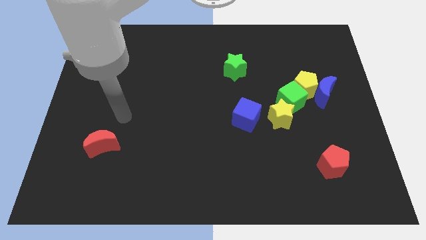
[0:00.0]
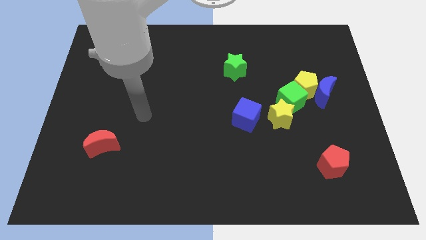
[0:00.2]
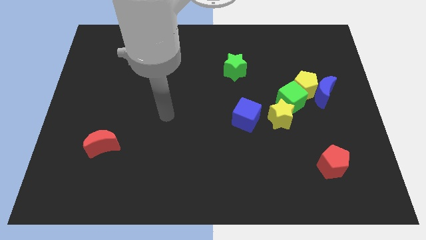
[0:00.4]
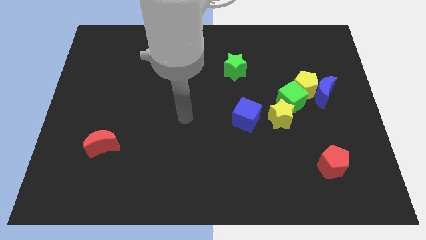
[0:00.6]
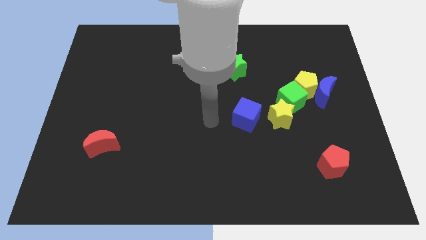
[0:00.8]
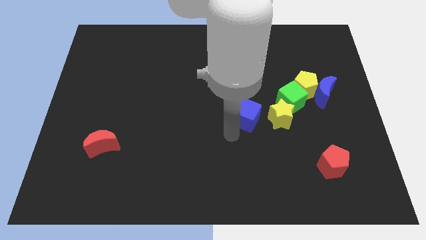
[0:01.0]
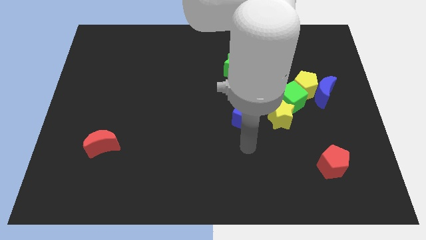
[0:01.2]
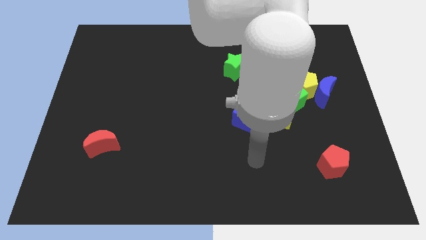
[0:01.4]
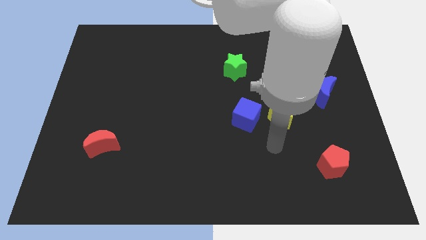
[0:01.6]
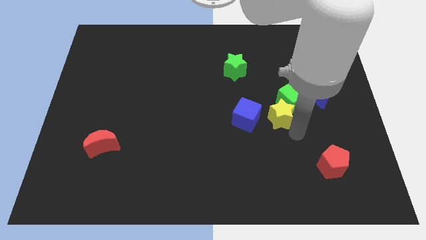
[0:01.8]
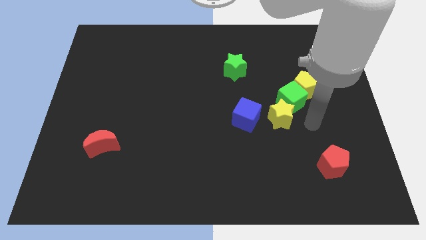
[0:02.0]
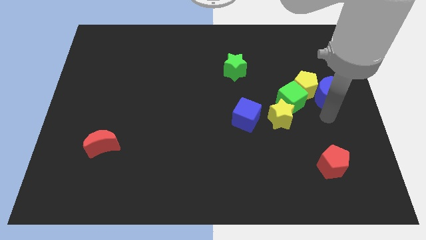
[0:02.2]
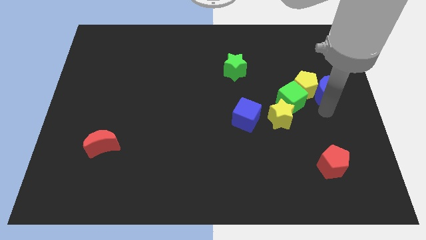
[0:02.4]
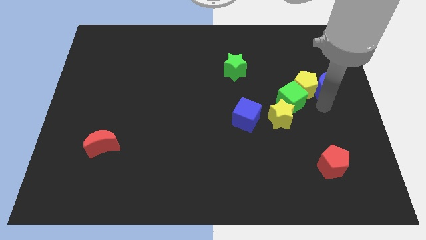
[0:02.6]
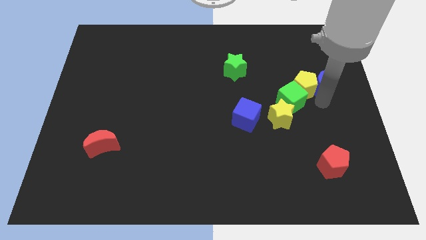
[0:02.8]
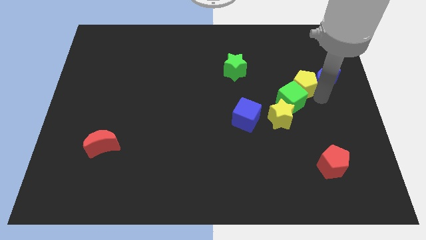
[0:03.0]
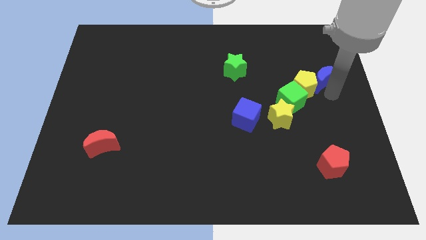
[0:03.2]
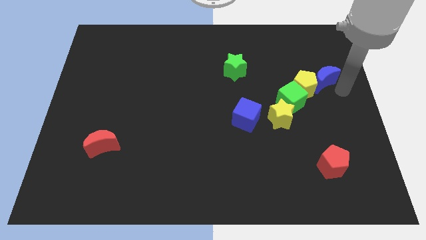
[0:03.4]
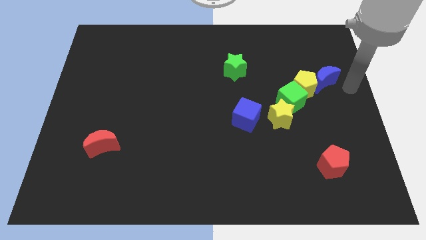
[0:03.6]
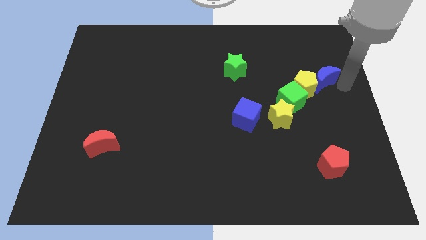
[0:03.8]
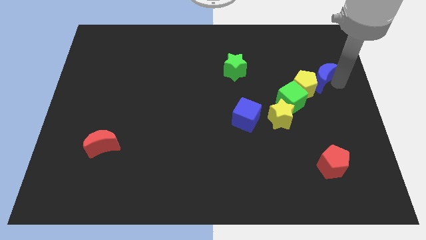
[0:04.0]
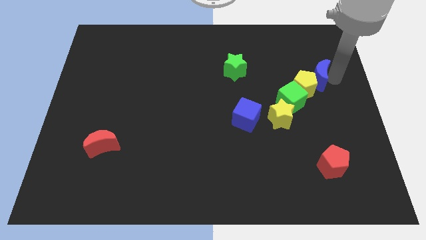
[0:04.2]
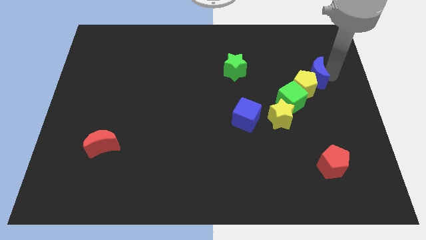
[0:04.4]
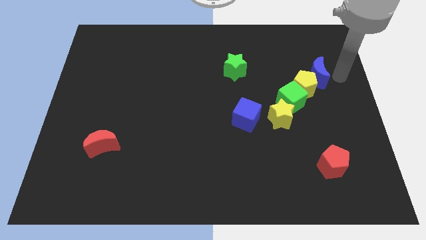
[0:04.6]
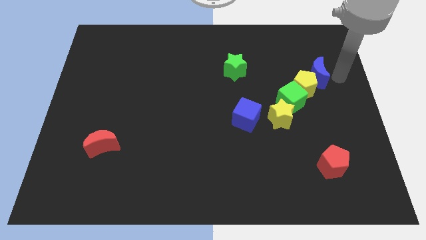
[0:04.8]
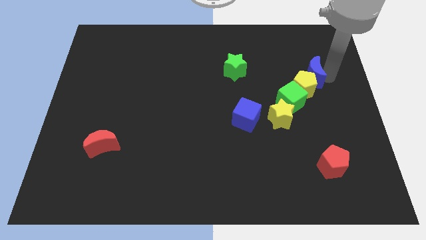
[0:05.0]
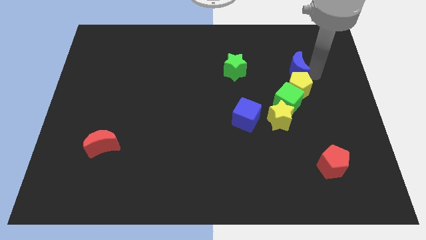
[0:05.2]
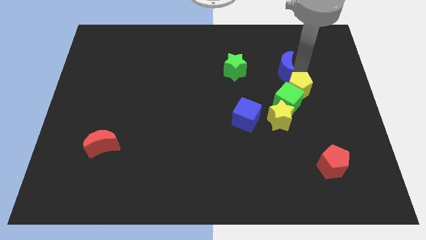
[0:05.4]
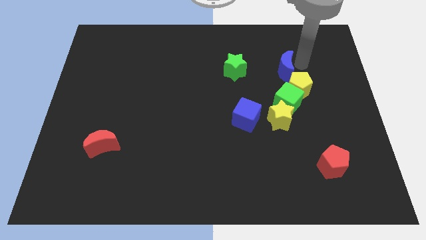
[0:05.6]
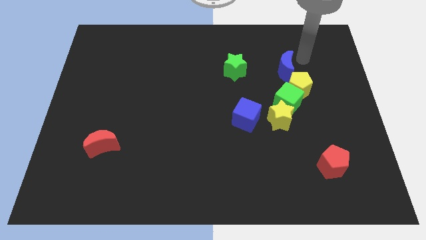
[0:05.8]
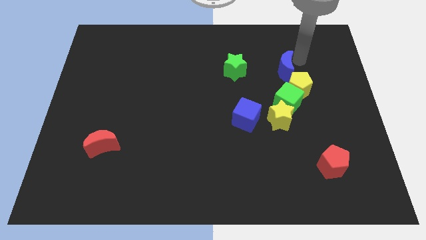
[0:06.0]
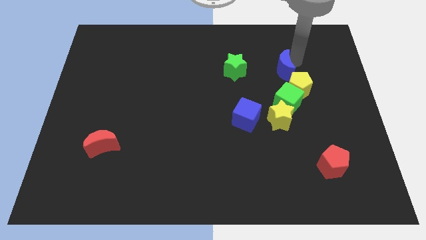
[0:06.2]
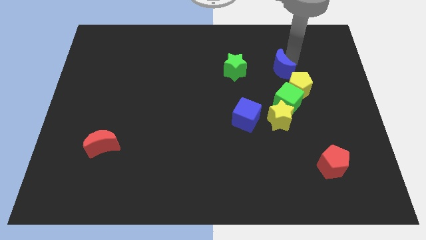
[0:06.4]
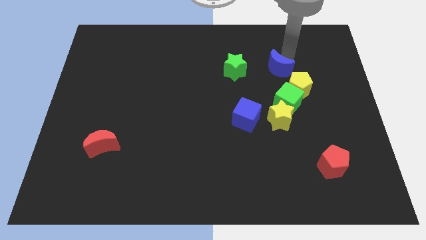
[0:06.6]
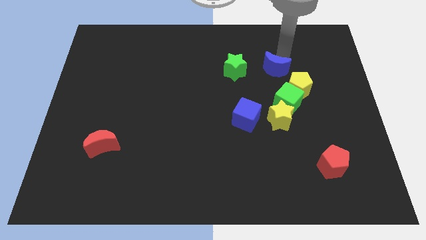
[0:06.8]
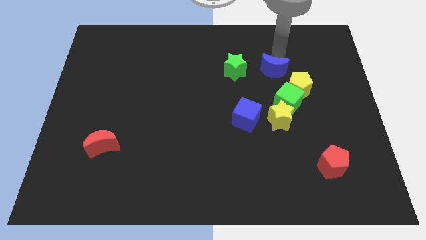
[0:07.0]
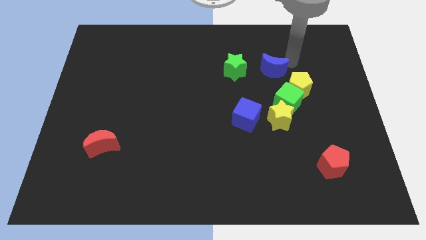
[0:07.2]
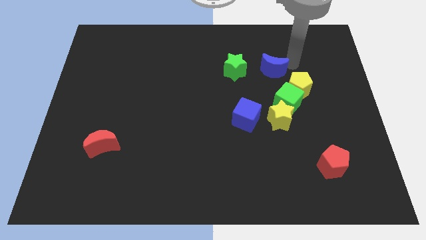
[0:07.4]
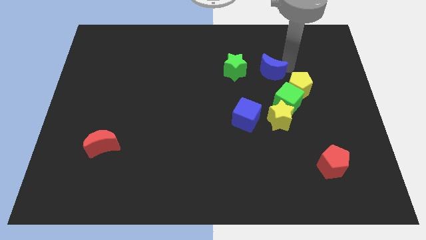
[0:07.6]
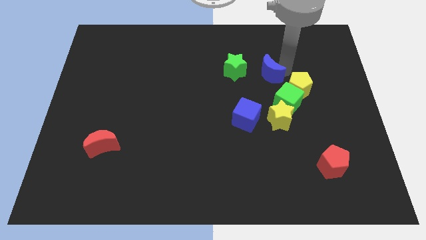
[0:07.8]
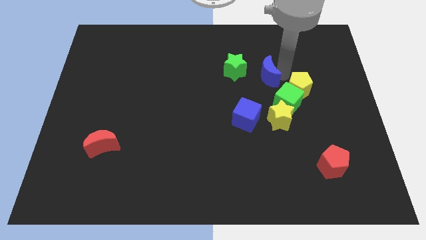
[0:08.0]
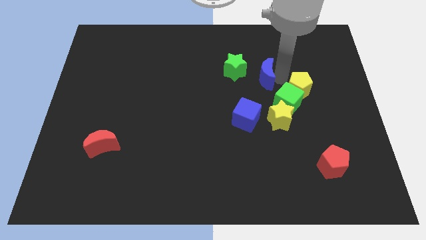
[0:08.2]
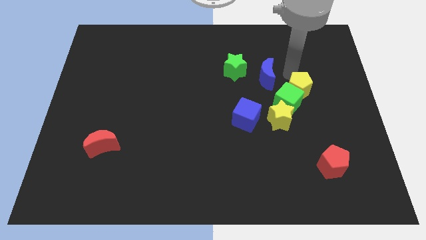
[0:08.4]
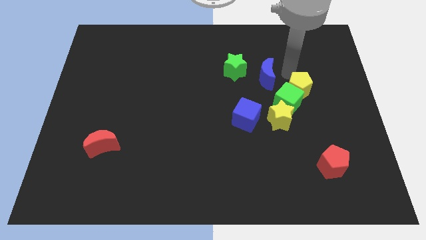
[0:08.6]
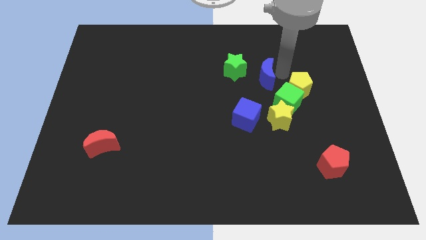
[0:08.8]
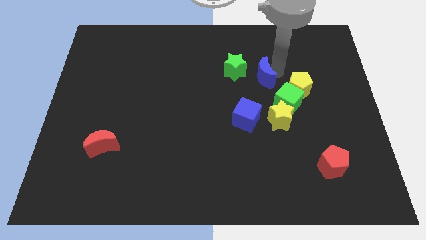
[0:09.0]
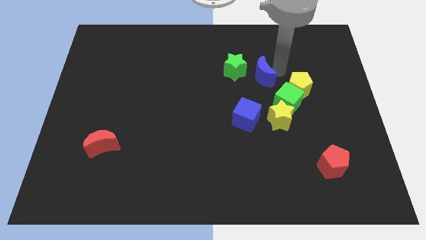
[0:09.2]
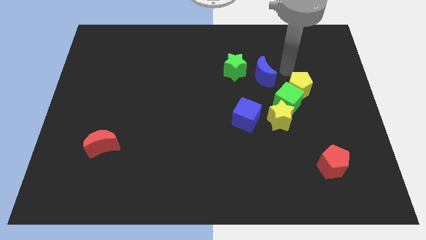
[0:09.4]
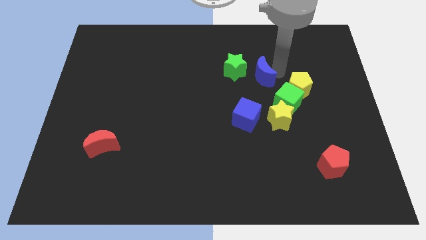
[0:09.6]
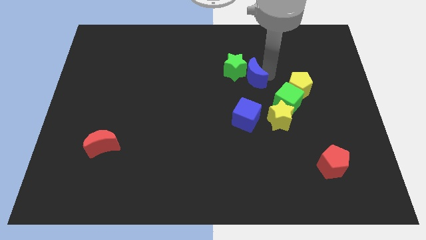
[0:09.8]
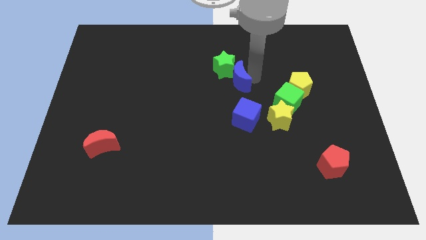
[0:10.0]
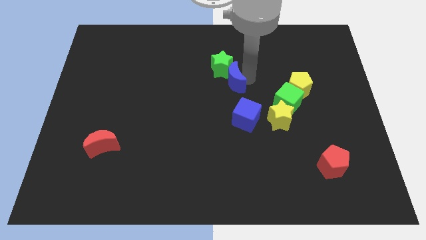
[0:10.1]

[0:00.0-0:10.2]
push the blue moon to the left

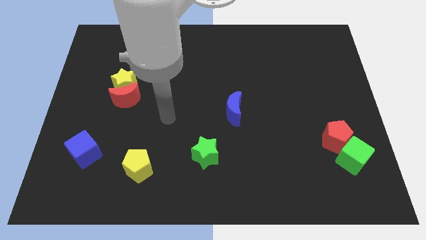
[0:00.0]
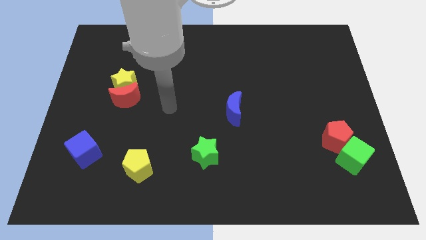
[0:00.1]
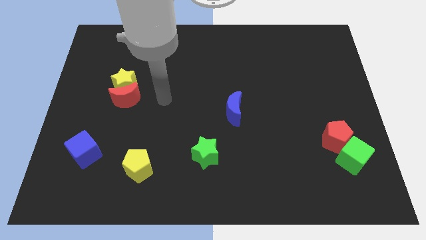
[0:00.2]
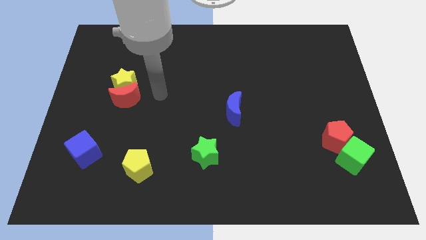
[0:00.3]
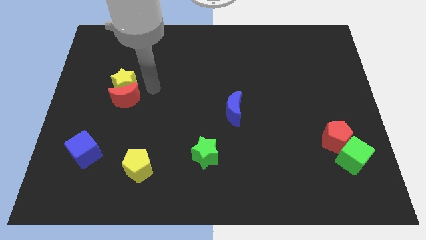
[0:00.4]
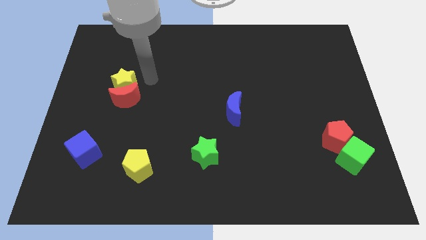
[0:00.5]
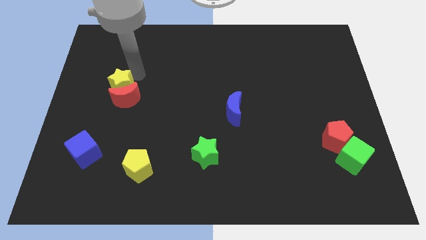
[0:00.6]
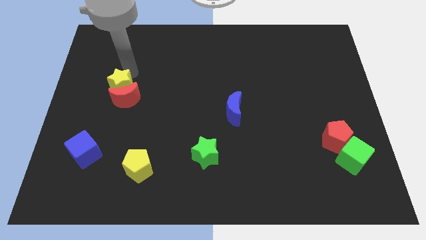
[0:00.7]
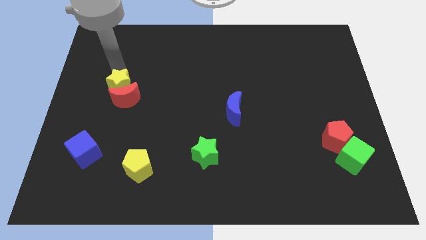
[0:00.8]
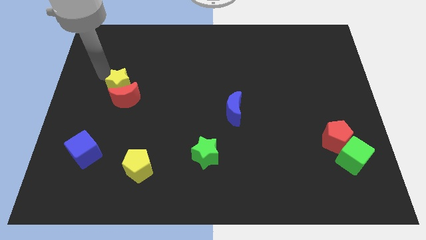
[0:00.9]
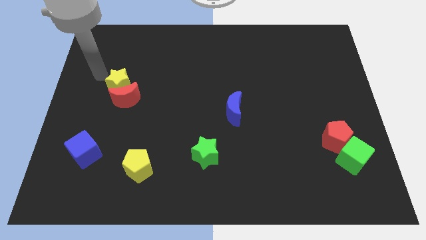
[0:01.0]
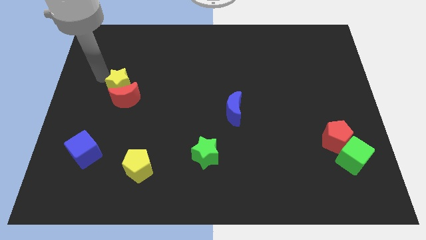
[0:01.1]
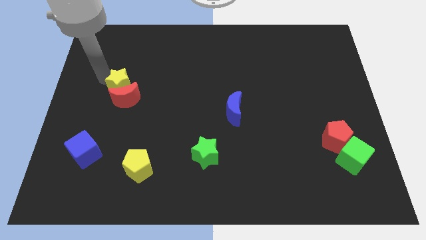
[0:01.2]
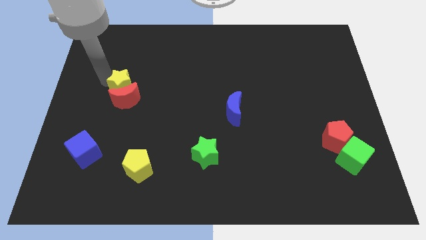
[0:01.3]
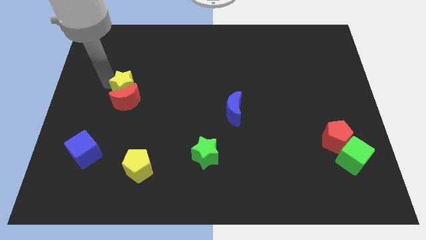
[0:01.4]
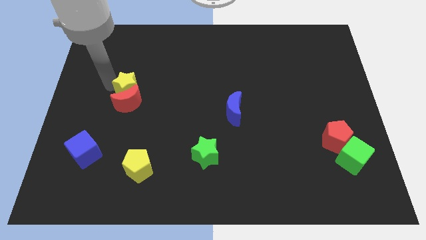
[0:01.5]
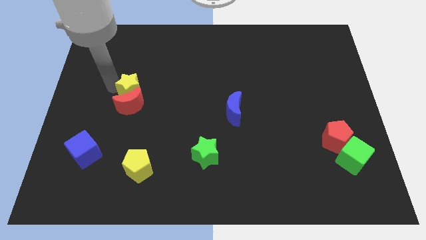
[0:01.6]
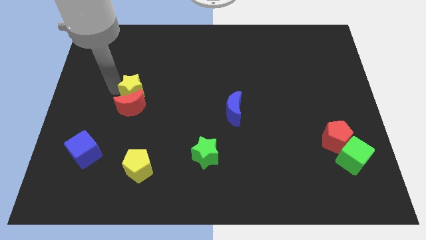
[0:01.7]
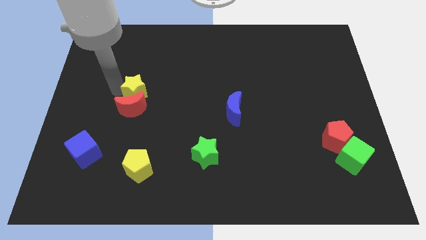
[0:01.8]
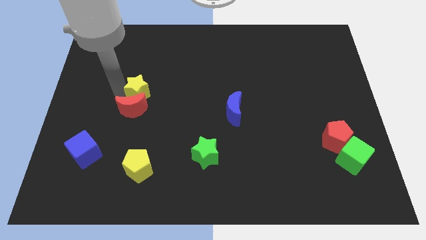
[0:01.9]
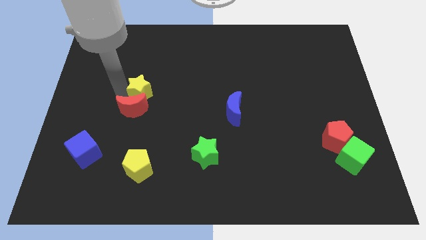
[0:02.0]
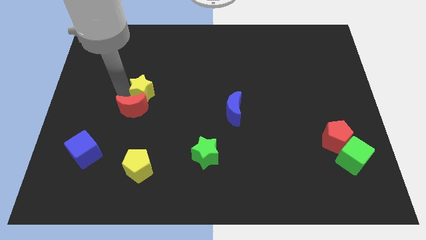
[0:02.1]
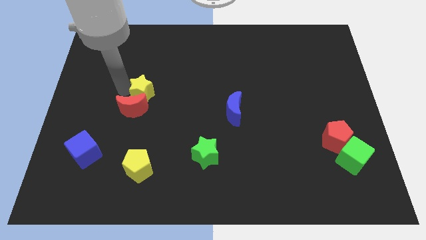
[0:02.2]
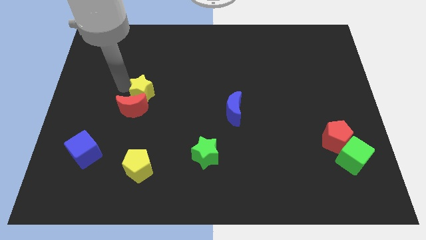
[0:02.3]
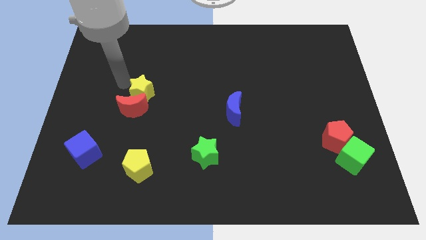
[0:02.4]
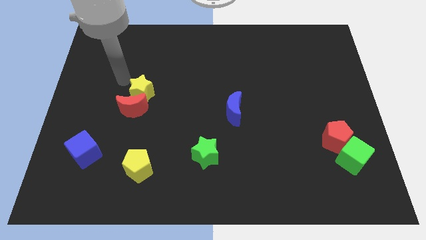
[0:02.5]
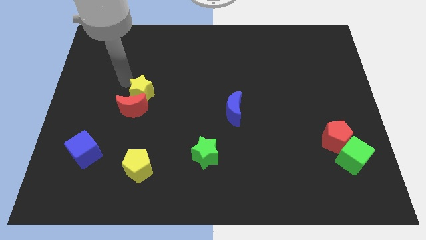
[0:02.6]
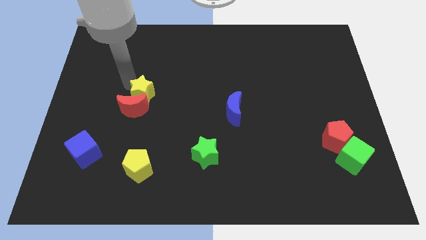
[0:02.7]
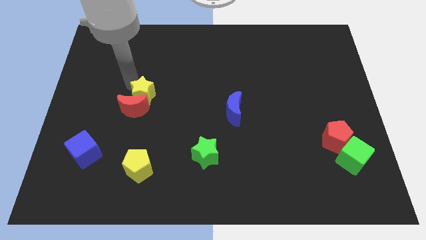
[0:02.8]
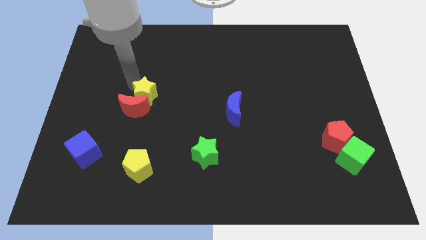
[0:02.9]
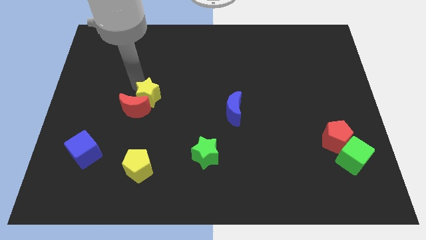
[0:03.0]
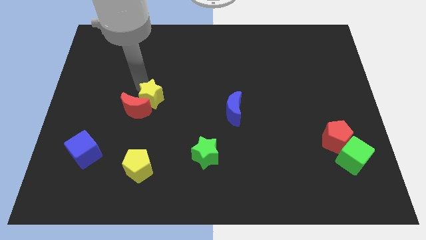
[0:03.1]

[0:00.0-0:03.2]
slightly push the yellow star downwards and then right

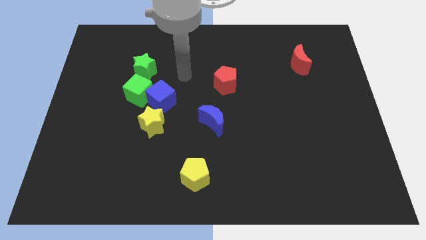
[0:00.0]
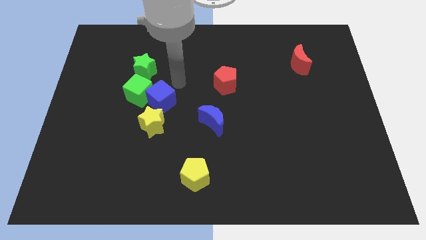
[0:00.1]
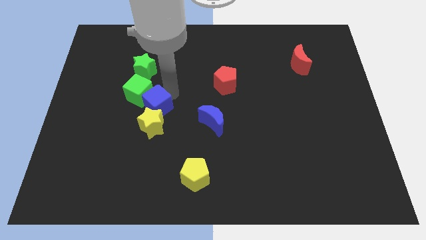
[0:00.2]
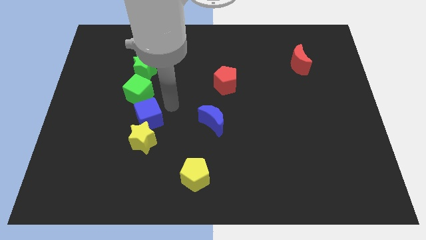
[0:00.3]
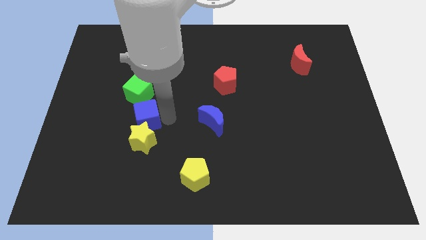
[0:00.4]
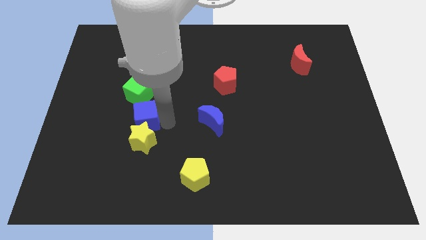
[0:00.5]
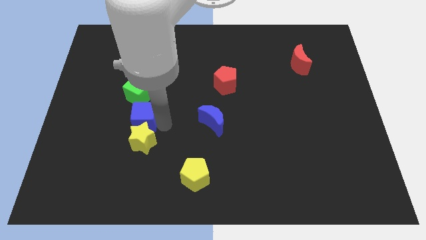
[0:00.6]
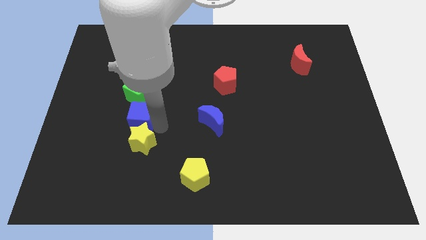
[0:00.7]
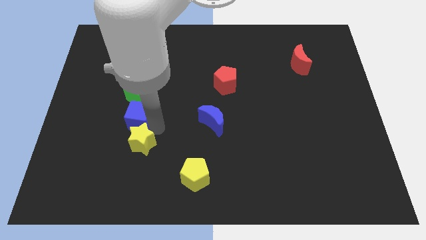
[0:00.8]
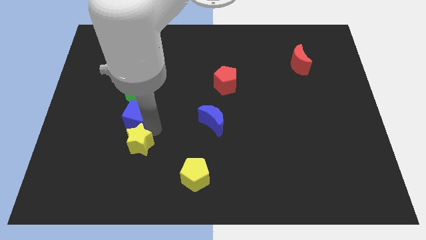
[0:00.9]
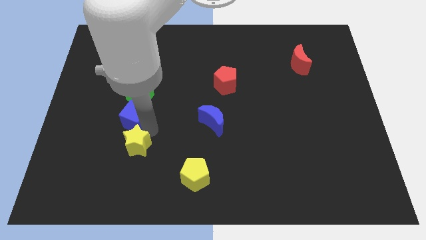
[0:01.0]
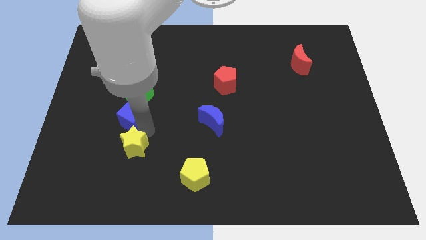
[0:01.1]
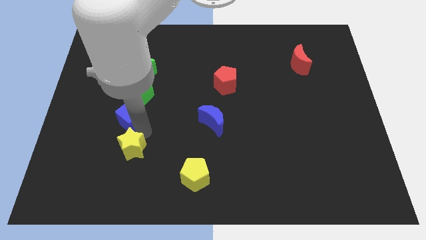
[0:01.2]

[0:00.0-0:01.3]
push the yellow star down and left diagonally a little
